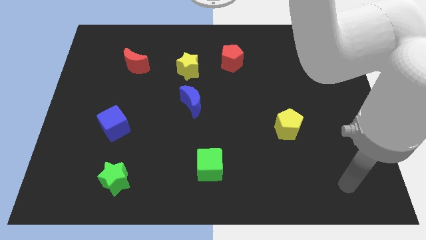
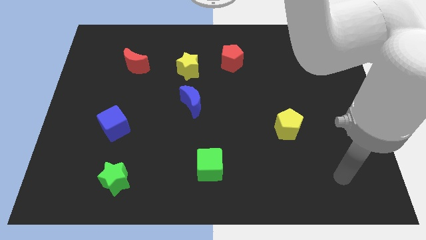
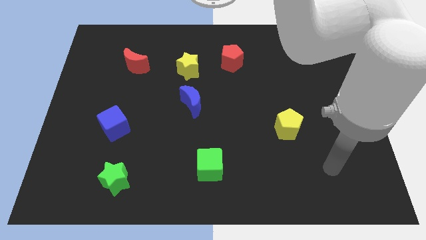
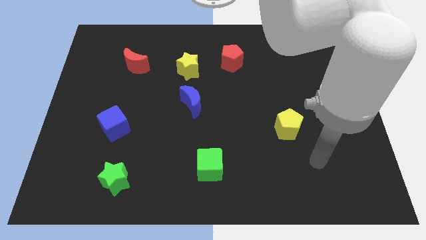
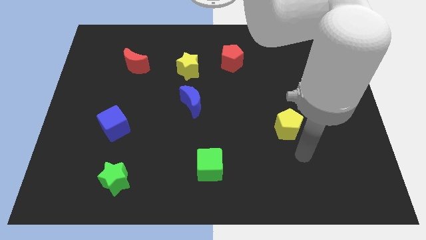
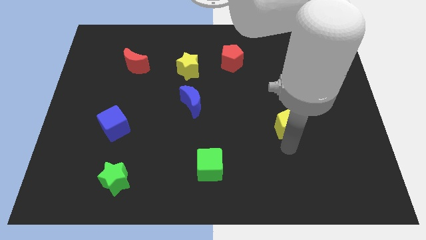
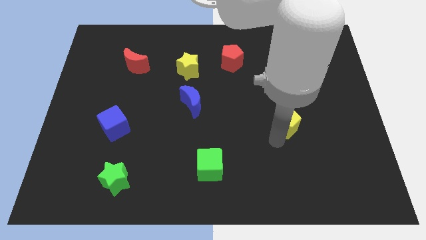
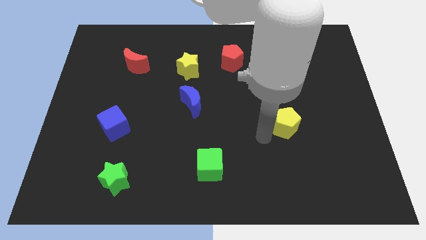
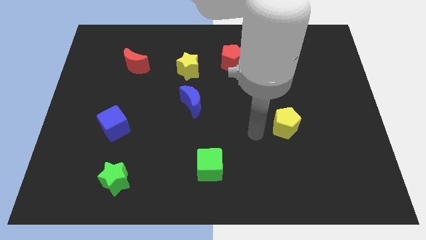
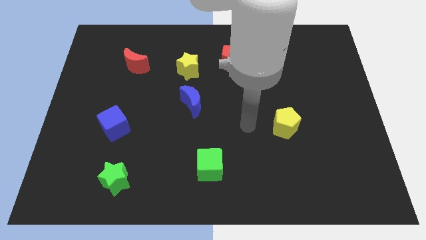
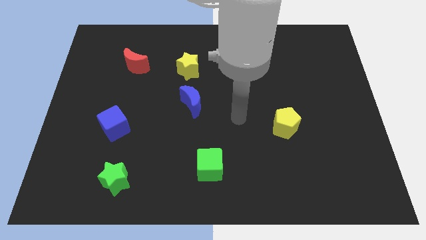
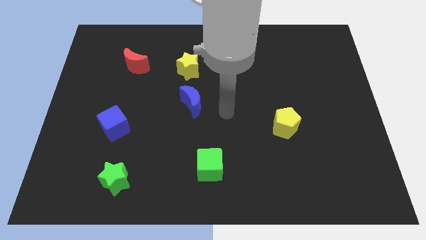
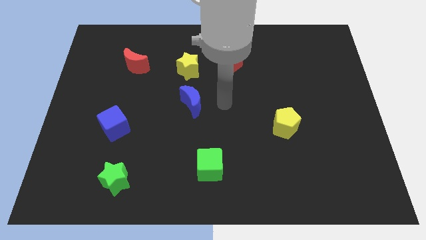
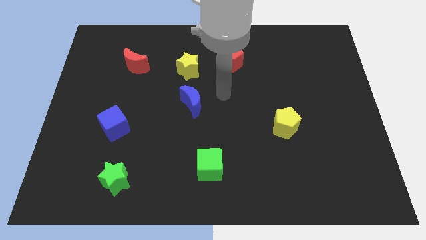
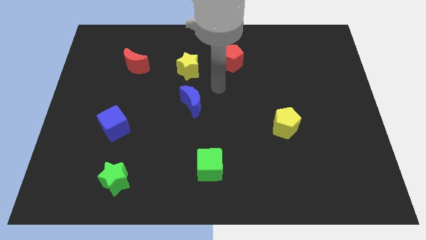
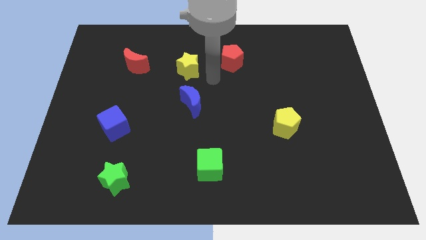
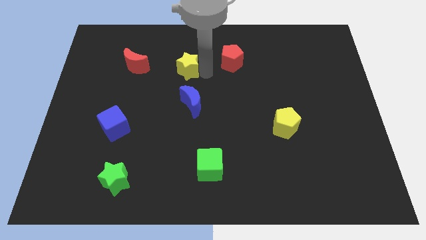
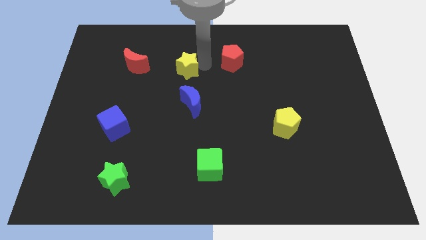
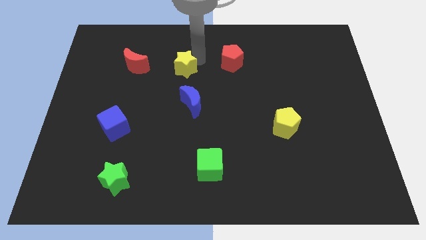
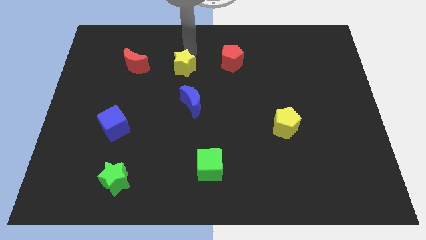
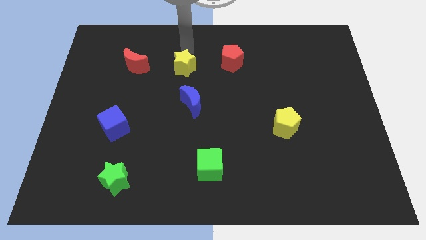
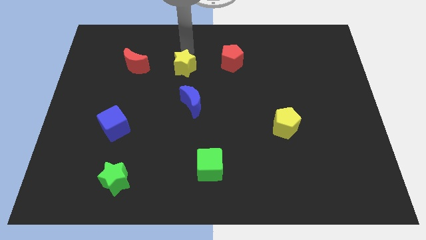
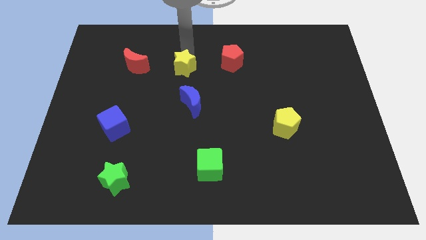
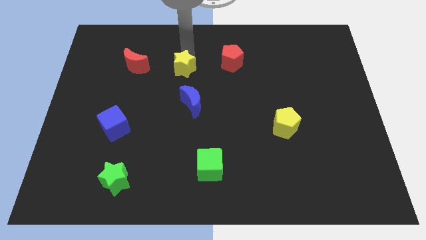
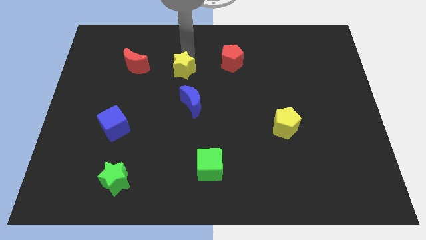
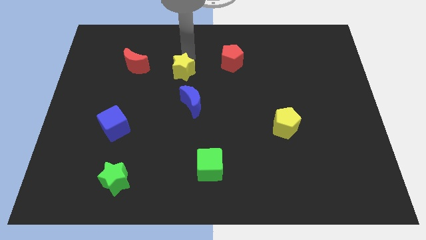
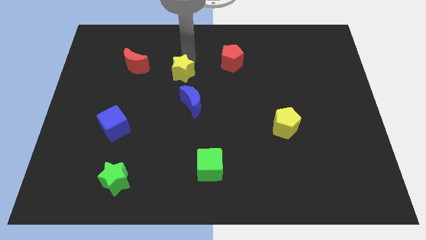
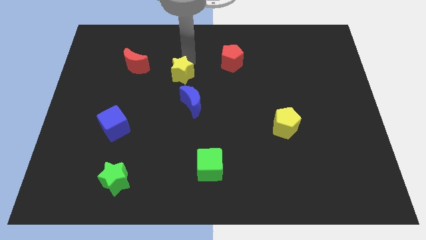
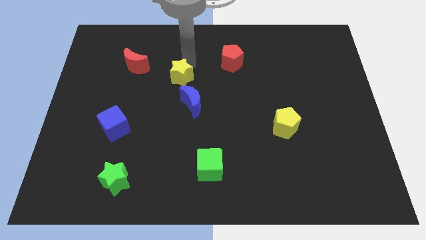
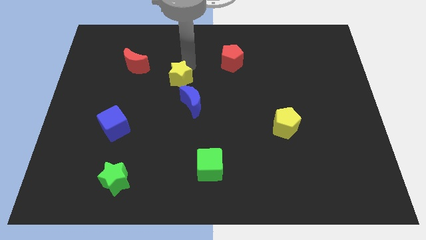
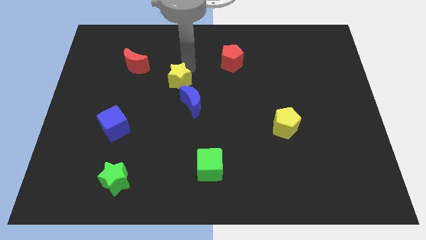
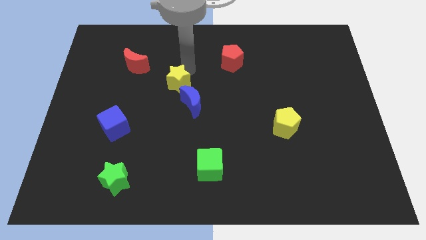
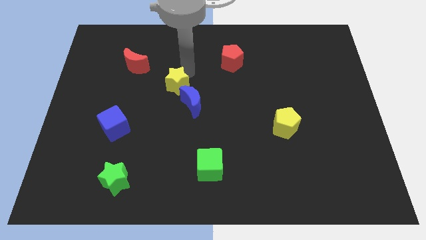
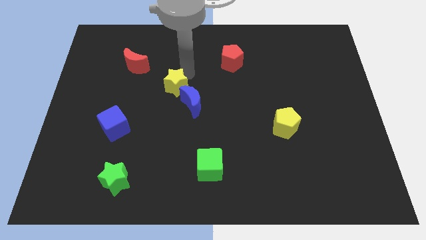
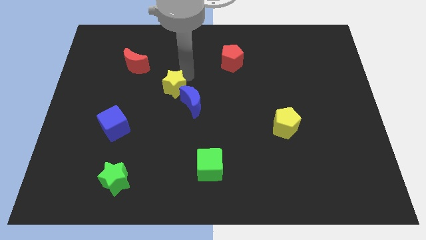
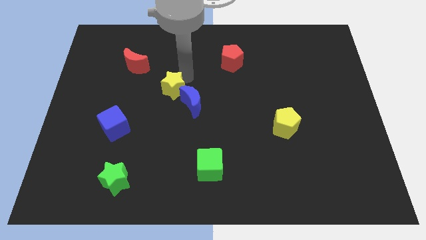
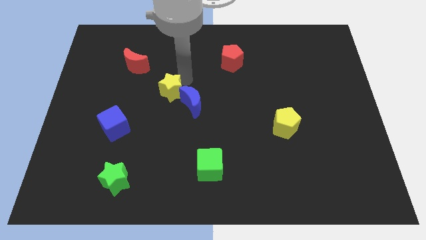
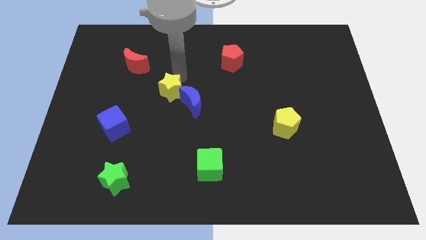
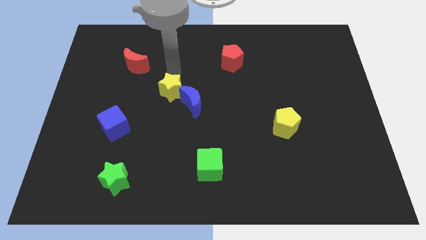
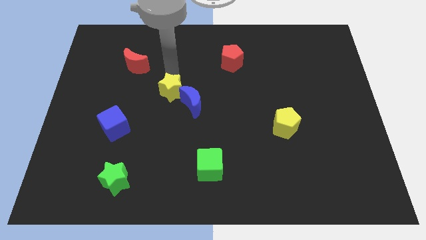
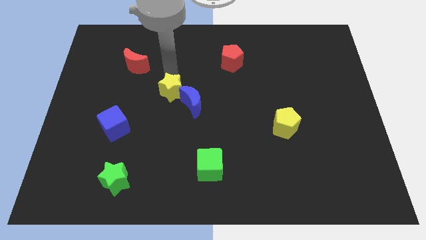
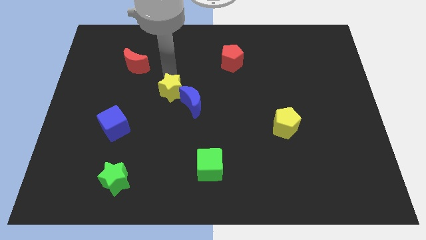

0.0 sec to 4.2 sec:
move the yellow star somewhat downwards

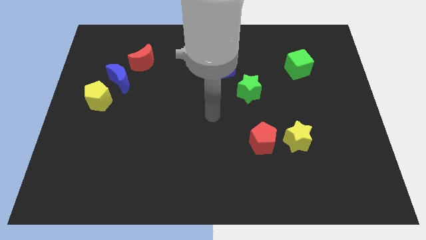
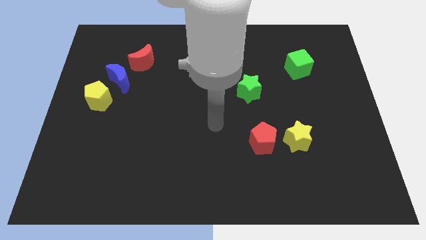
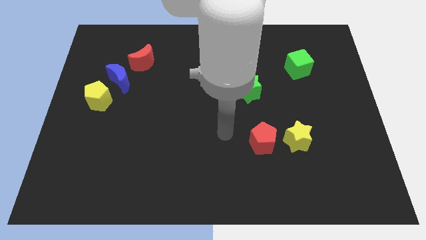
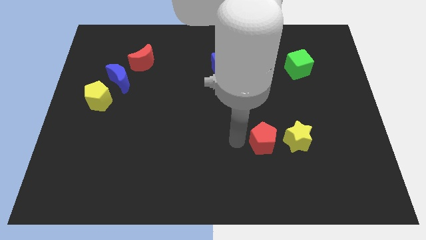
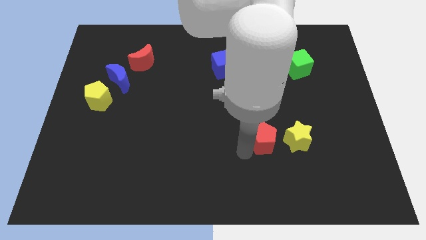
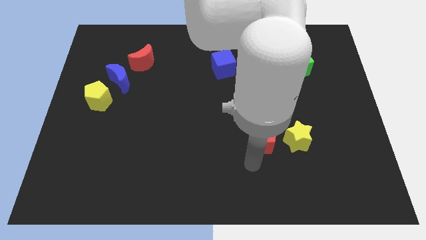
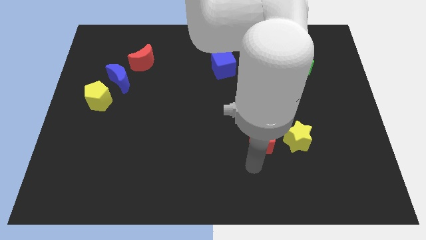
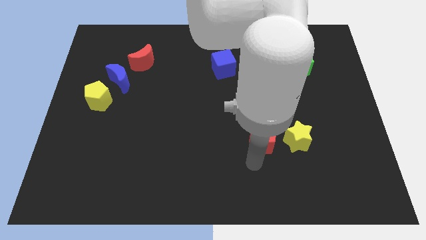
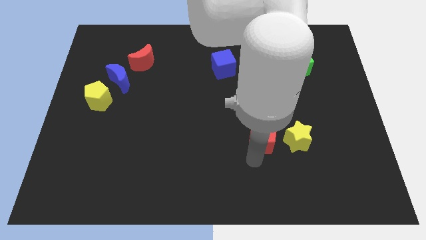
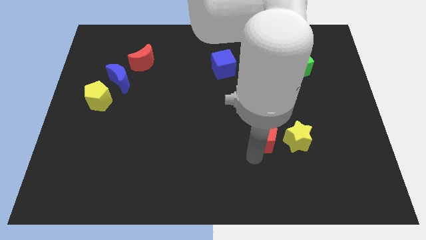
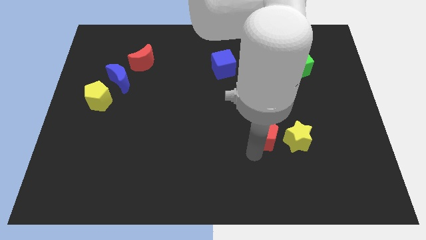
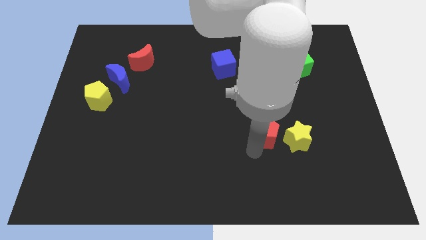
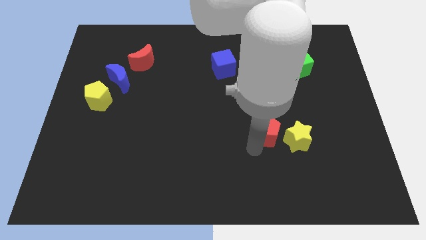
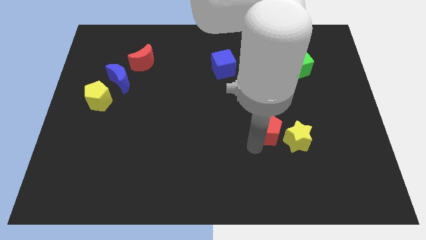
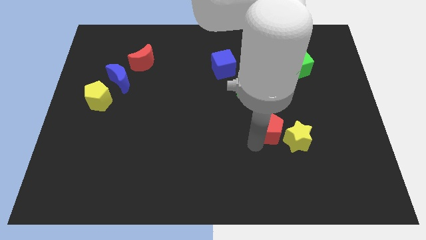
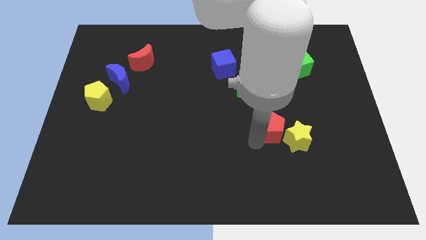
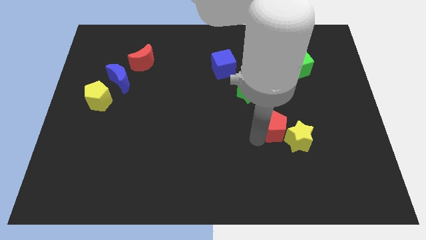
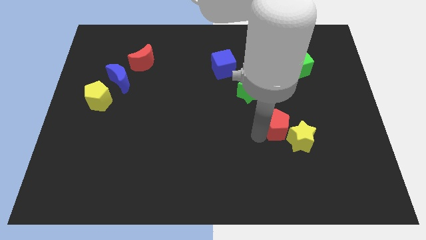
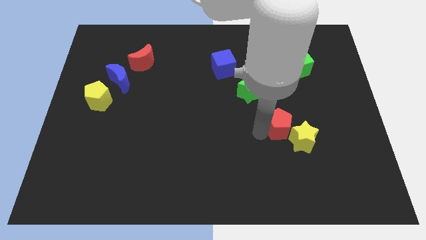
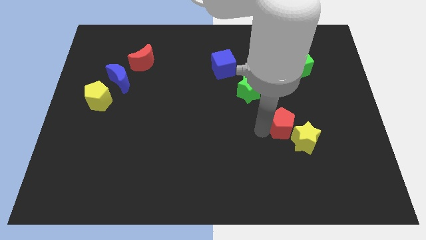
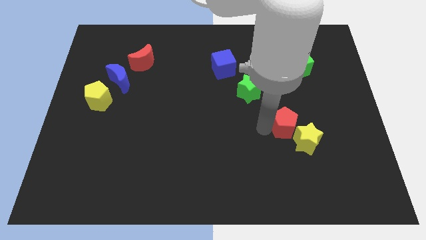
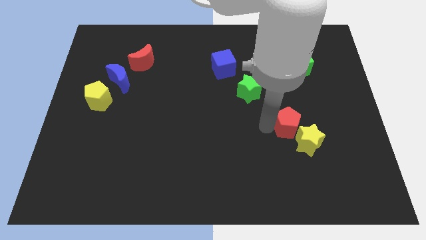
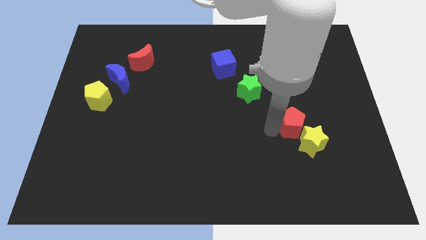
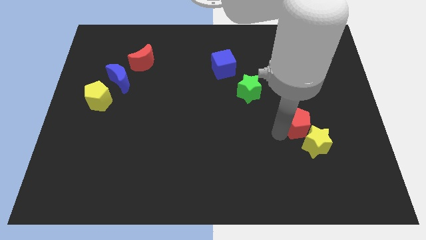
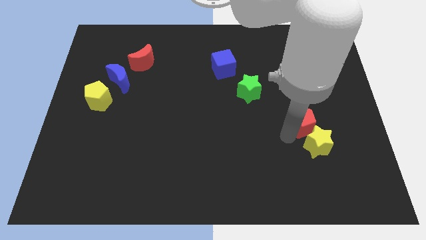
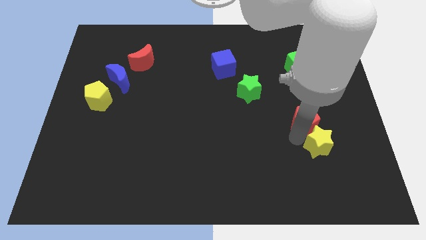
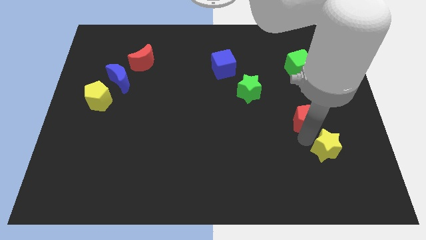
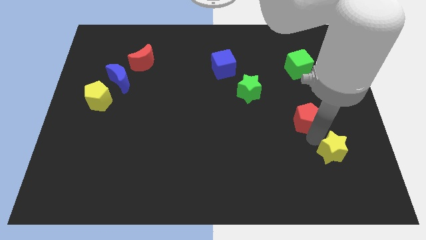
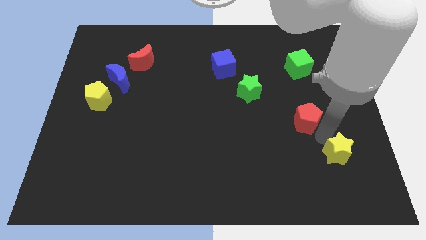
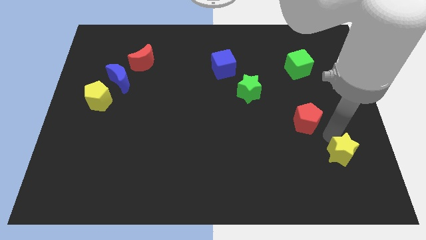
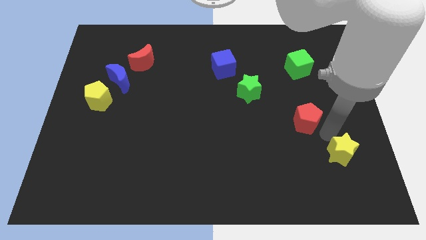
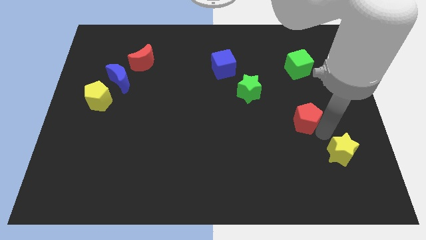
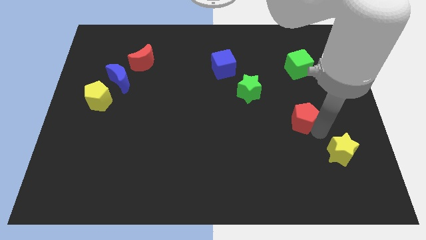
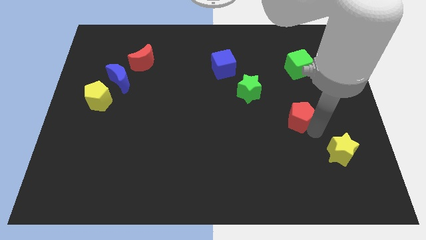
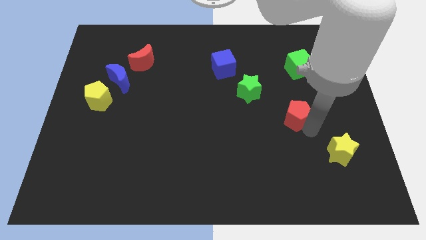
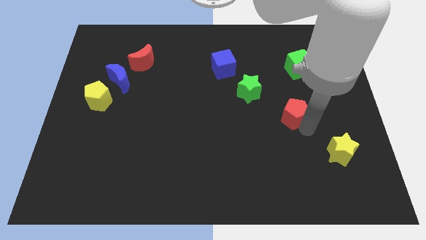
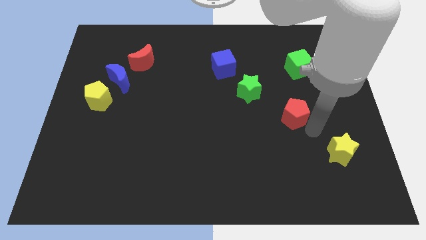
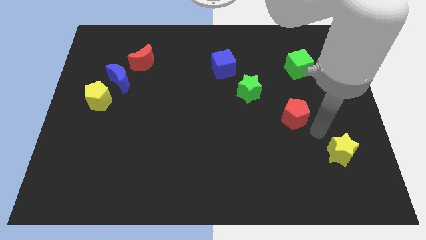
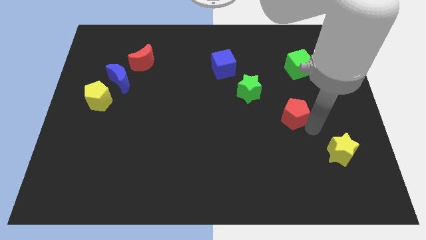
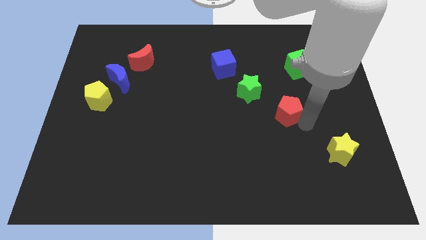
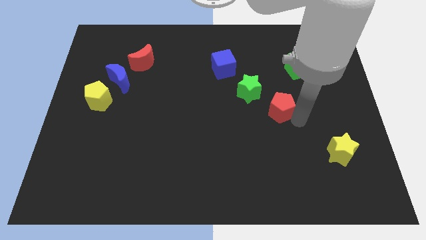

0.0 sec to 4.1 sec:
slightly slide the red pentagon upwards
